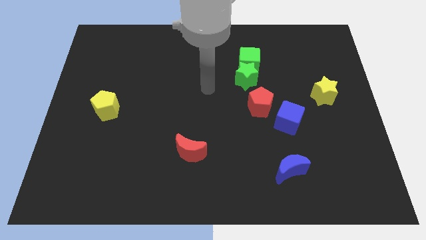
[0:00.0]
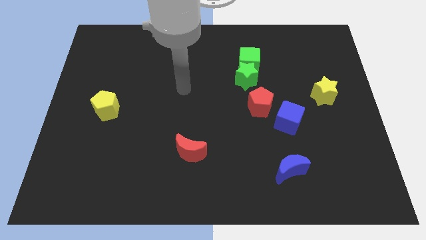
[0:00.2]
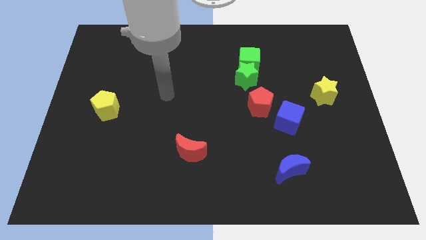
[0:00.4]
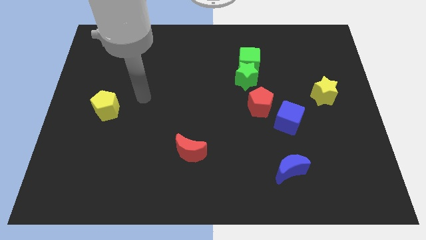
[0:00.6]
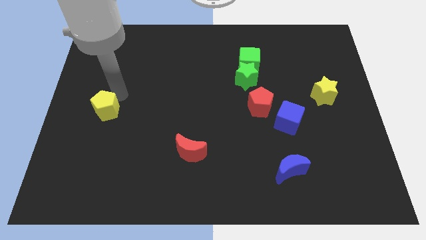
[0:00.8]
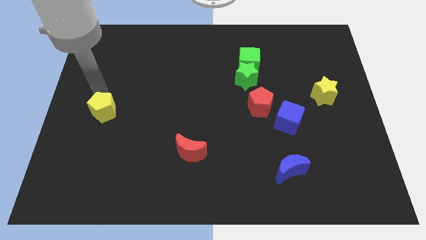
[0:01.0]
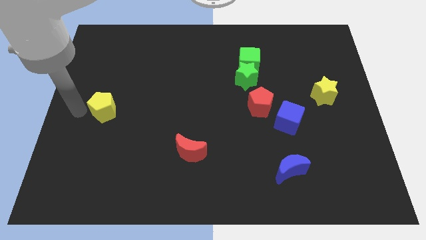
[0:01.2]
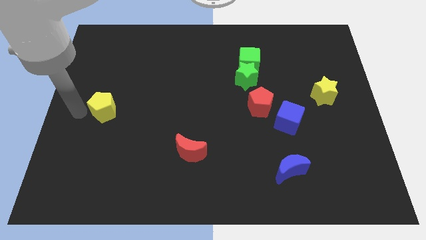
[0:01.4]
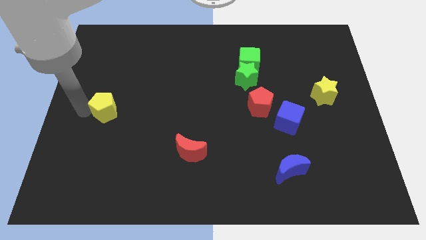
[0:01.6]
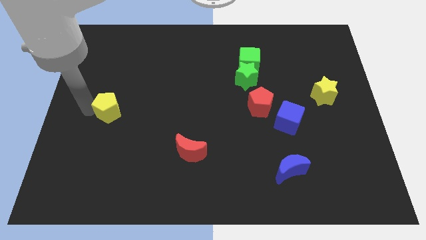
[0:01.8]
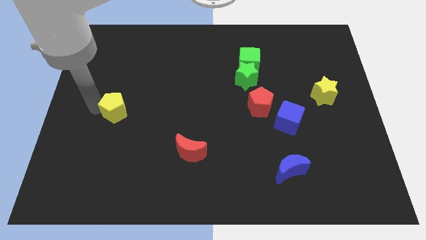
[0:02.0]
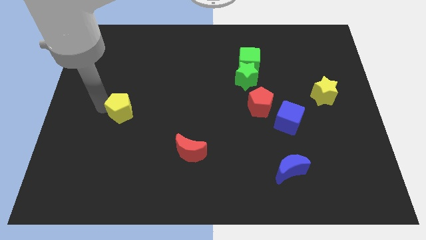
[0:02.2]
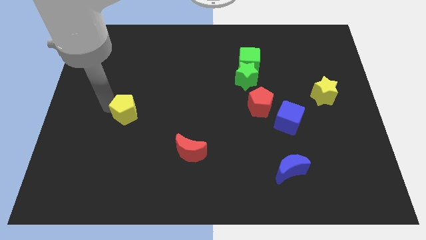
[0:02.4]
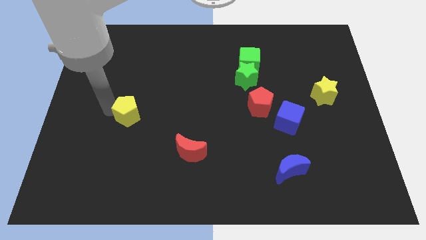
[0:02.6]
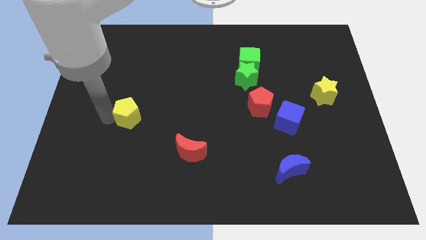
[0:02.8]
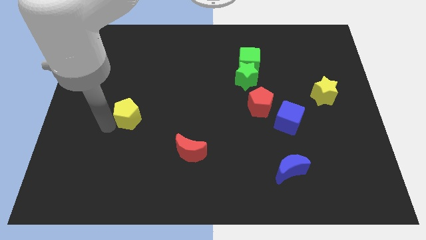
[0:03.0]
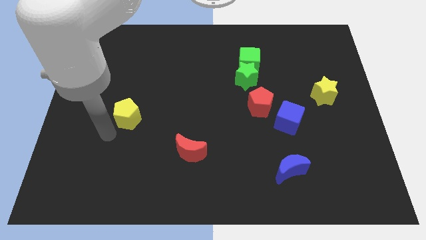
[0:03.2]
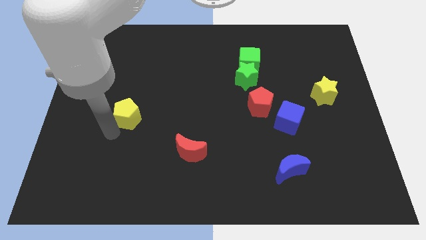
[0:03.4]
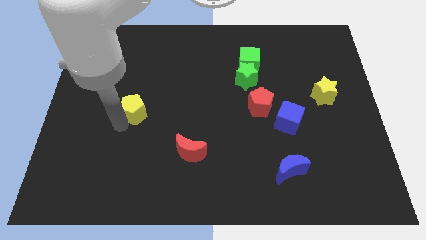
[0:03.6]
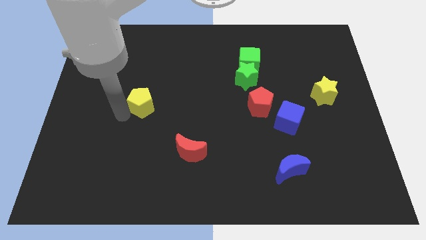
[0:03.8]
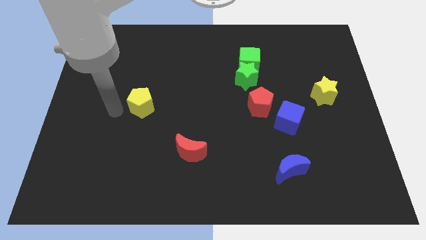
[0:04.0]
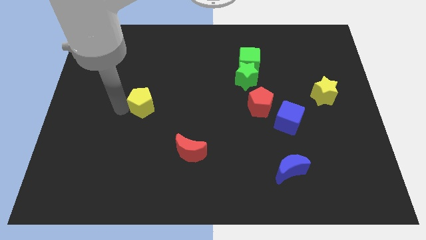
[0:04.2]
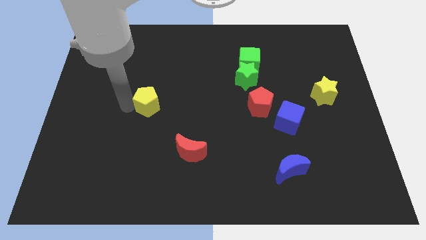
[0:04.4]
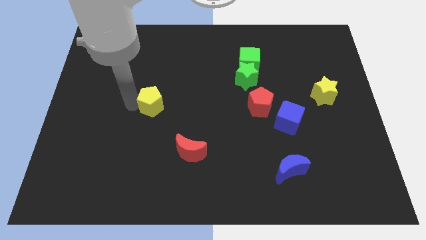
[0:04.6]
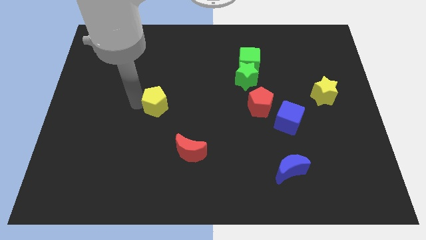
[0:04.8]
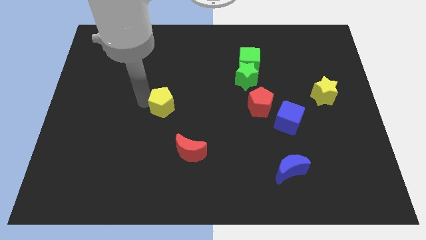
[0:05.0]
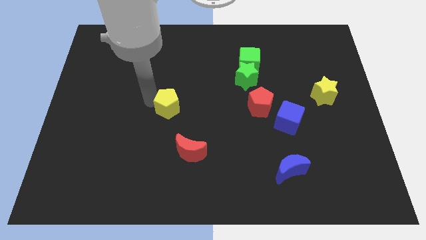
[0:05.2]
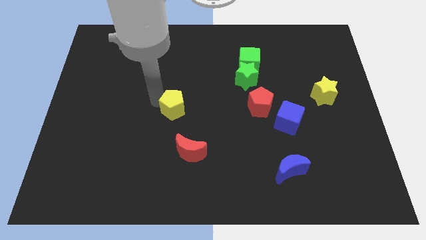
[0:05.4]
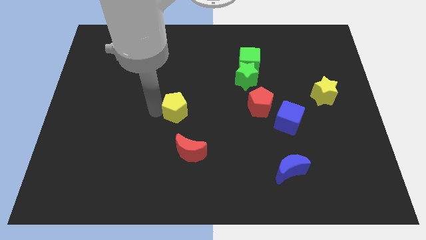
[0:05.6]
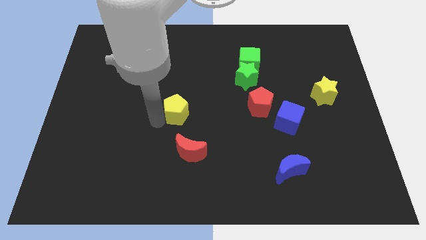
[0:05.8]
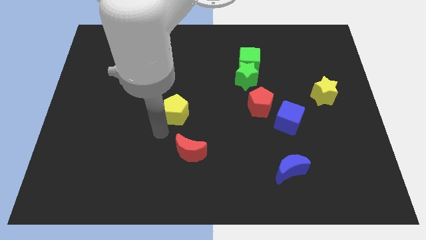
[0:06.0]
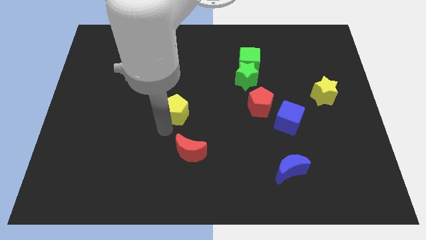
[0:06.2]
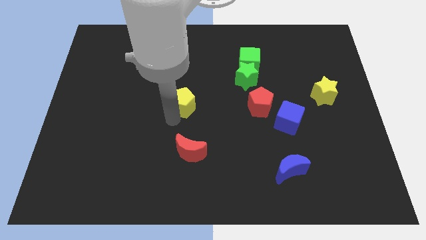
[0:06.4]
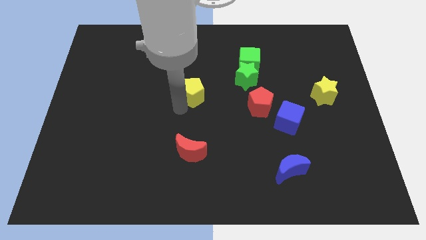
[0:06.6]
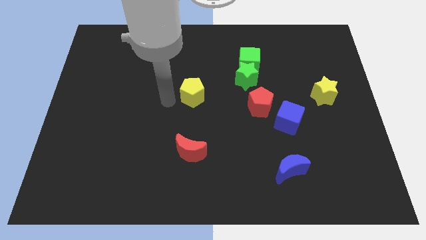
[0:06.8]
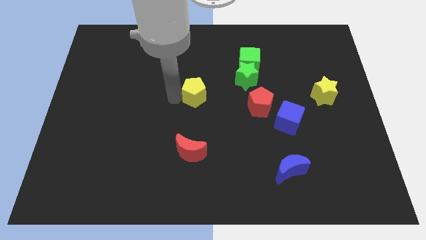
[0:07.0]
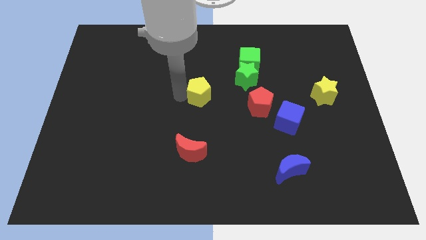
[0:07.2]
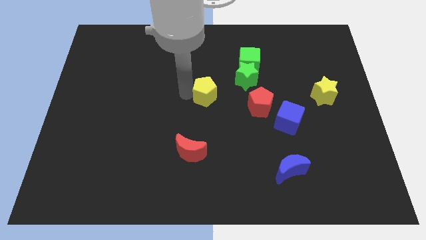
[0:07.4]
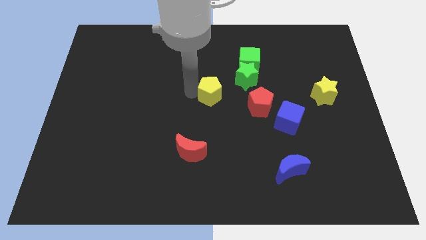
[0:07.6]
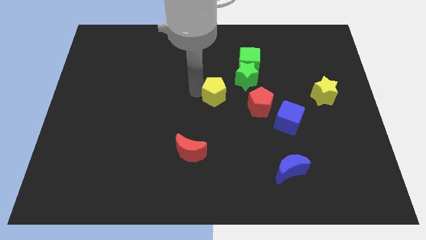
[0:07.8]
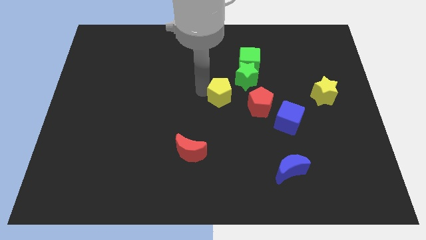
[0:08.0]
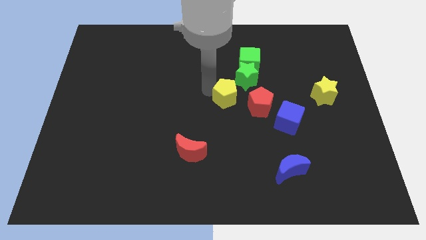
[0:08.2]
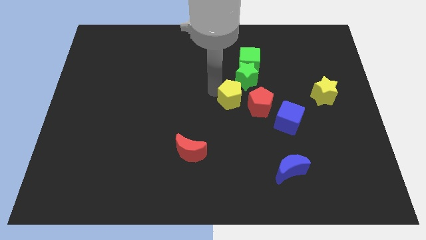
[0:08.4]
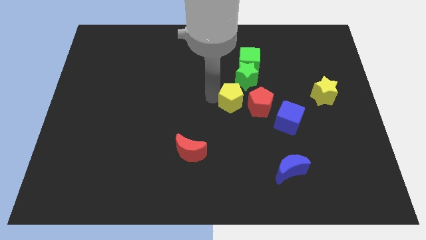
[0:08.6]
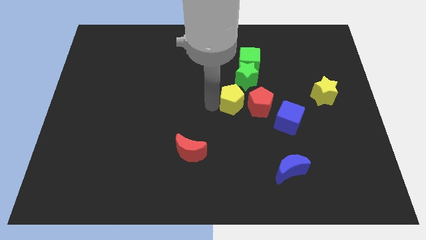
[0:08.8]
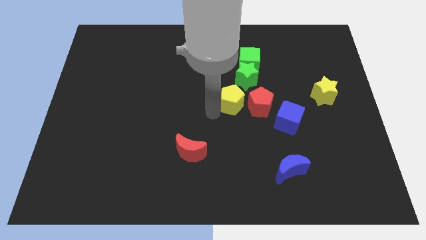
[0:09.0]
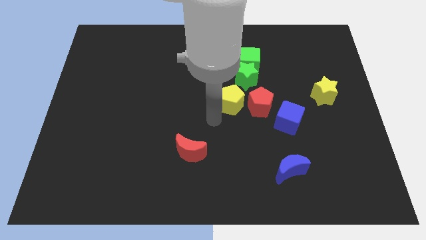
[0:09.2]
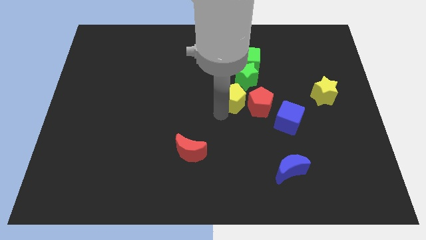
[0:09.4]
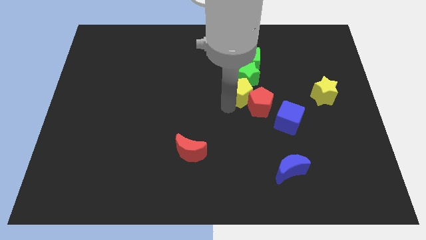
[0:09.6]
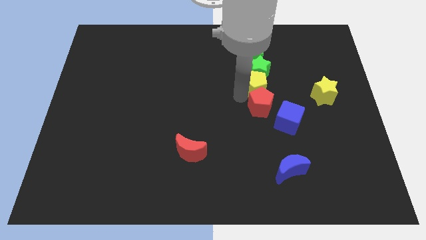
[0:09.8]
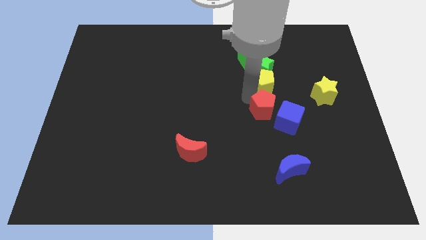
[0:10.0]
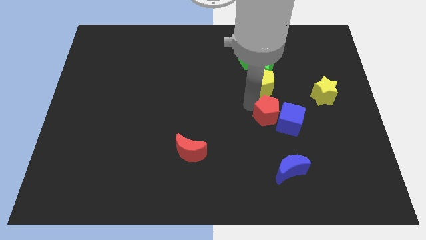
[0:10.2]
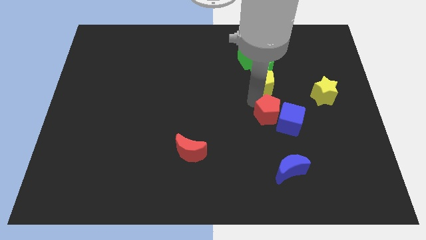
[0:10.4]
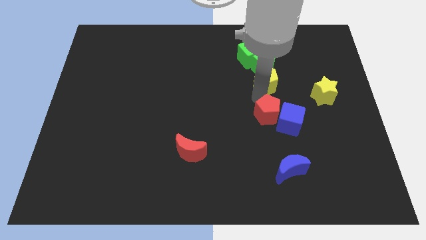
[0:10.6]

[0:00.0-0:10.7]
put the yellow pentagon to the bottom right side of the green cube

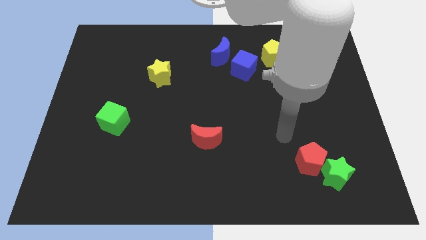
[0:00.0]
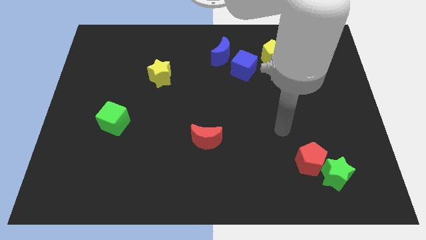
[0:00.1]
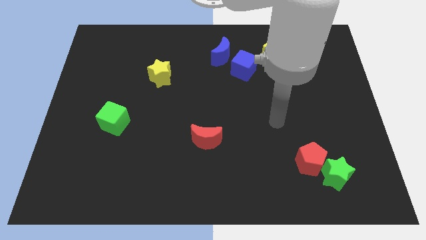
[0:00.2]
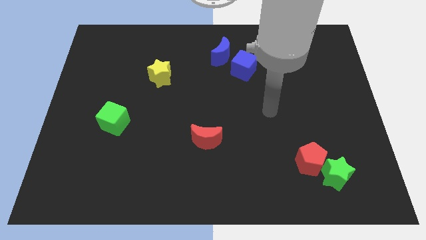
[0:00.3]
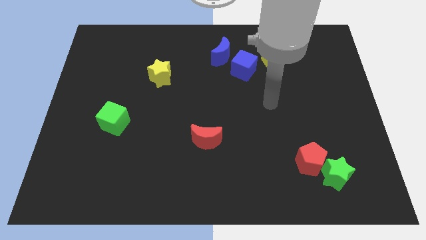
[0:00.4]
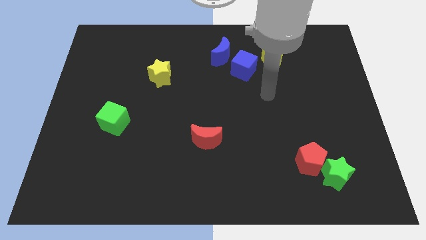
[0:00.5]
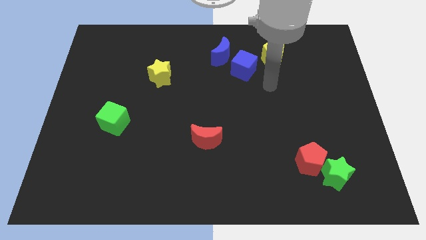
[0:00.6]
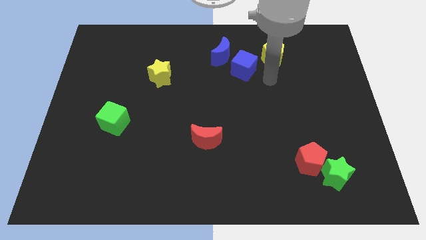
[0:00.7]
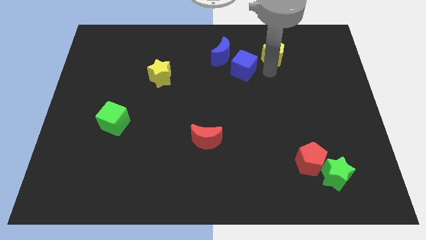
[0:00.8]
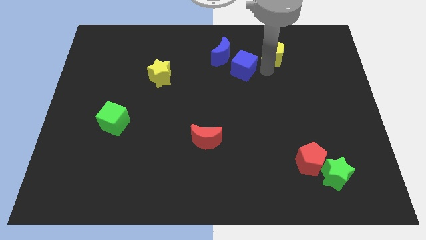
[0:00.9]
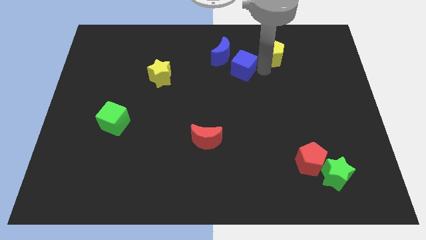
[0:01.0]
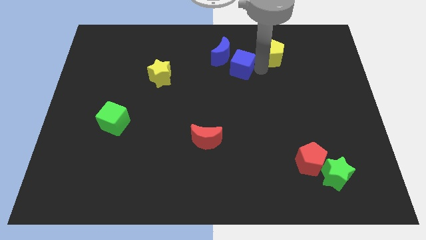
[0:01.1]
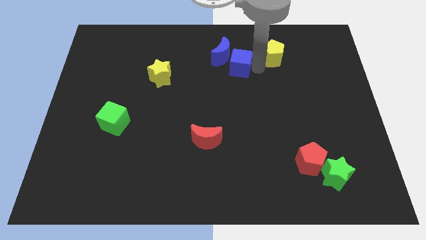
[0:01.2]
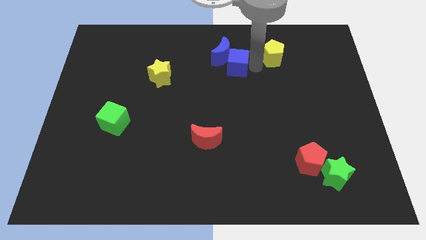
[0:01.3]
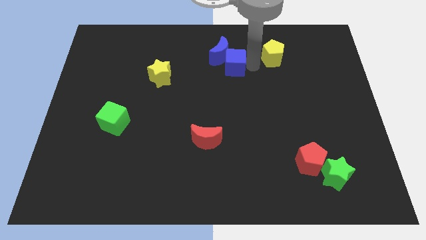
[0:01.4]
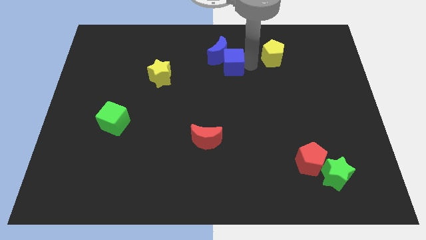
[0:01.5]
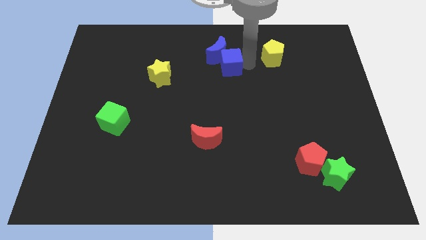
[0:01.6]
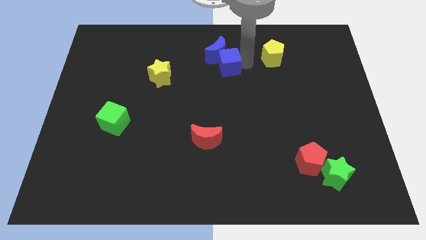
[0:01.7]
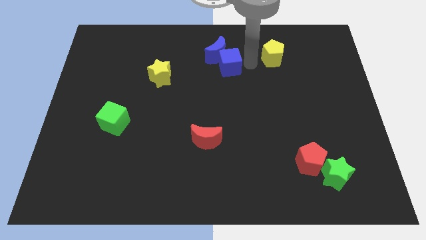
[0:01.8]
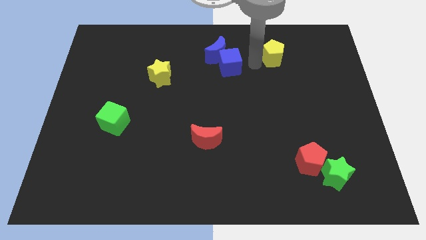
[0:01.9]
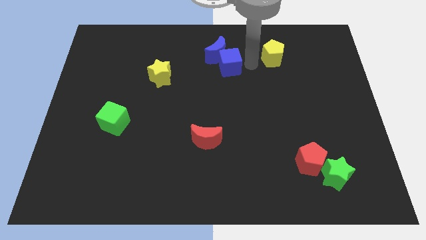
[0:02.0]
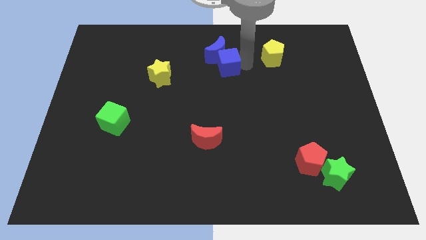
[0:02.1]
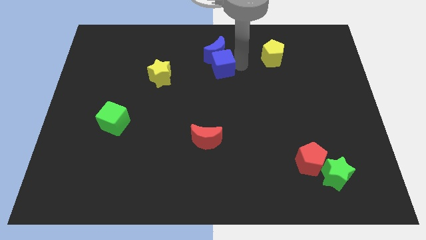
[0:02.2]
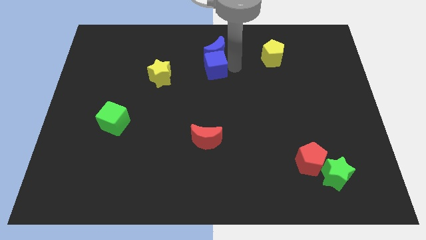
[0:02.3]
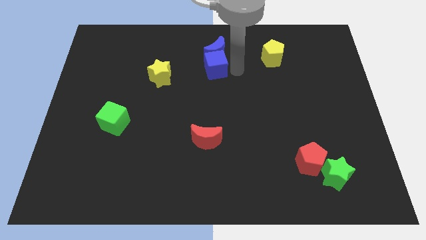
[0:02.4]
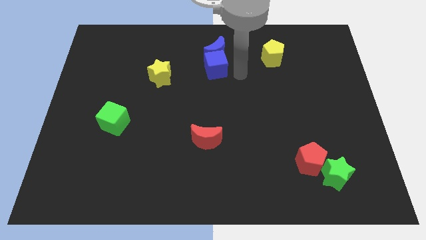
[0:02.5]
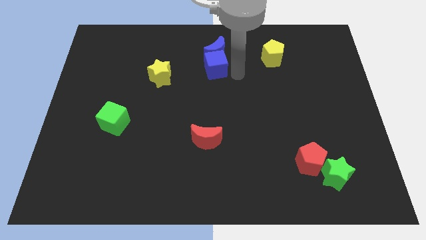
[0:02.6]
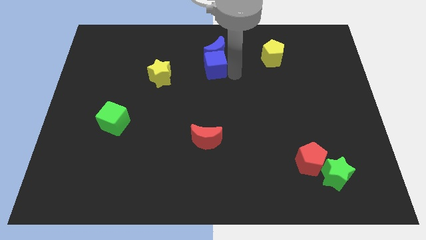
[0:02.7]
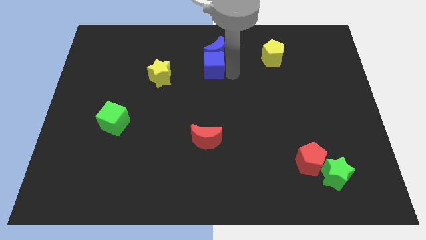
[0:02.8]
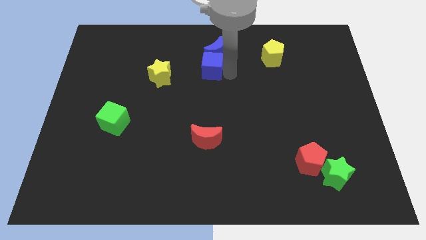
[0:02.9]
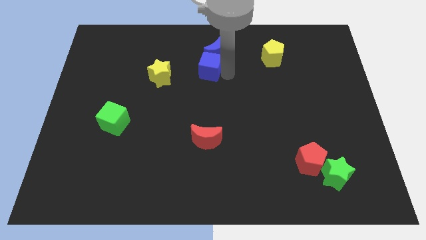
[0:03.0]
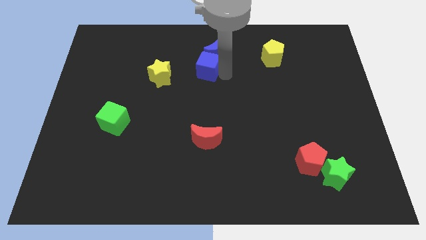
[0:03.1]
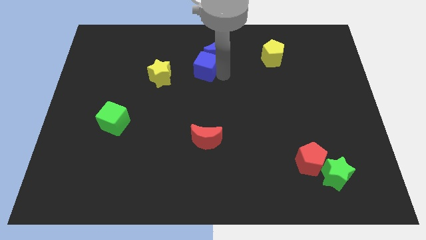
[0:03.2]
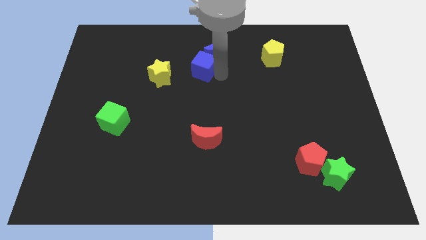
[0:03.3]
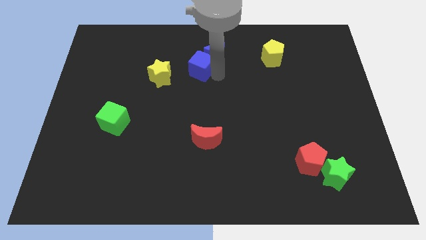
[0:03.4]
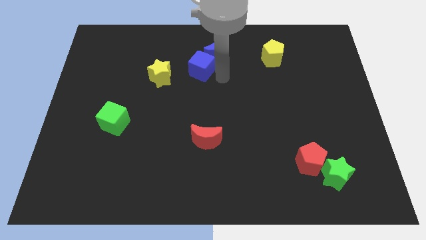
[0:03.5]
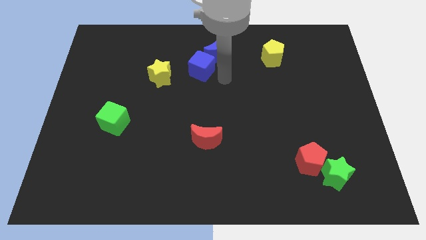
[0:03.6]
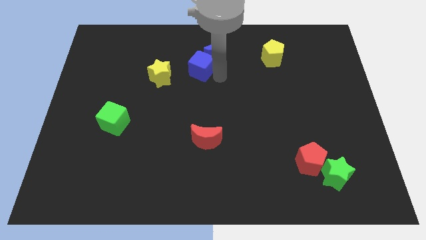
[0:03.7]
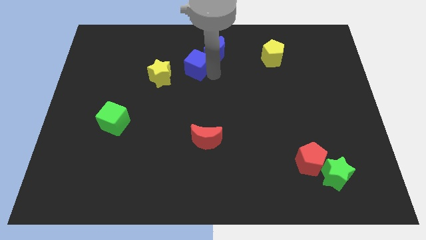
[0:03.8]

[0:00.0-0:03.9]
move the blue cube diagonally up and to the right of the yellow star
